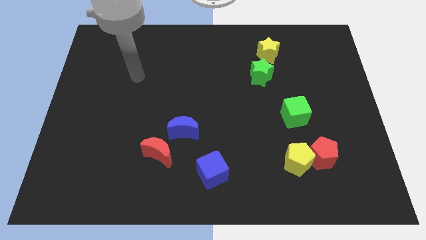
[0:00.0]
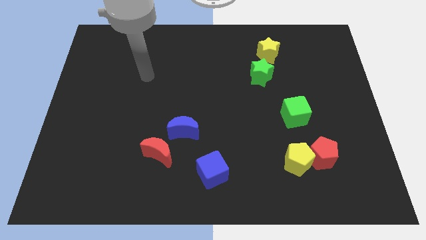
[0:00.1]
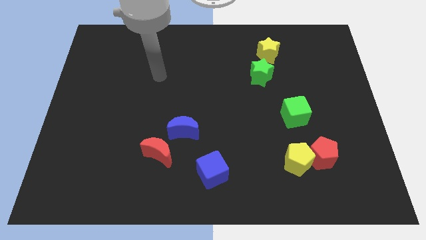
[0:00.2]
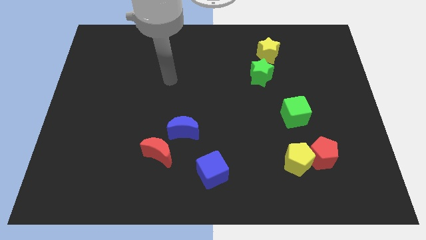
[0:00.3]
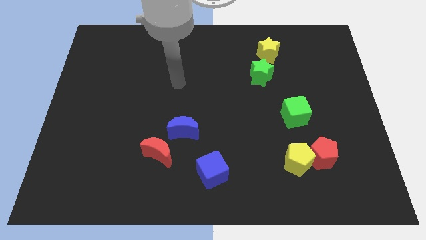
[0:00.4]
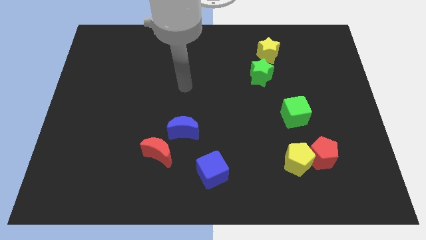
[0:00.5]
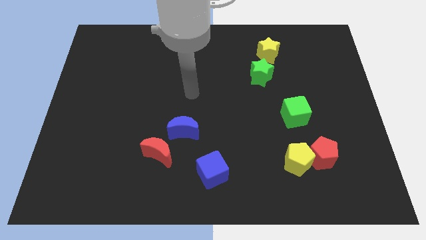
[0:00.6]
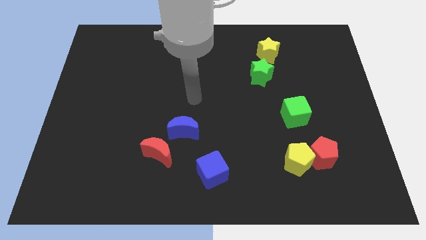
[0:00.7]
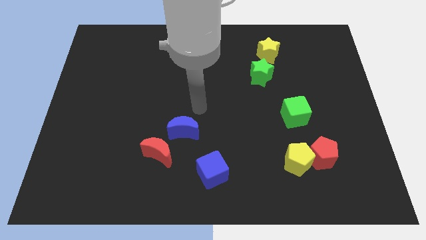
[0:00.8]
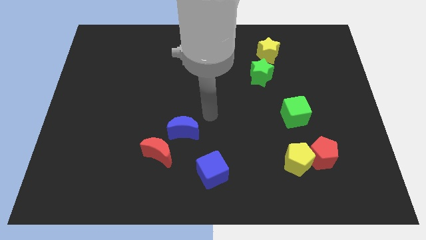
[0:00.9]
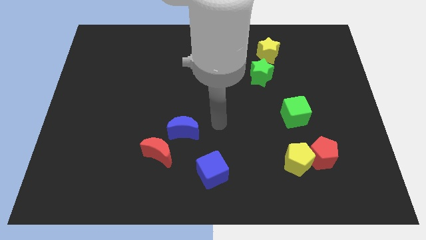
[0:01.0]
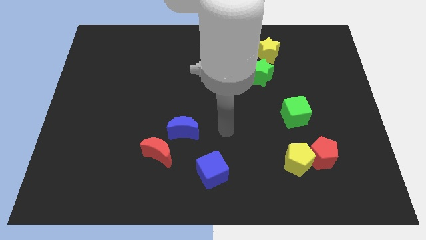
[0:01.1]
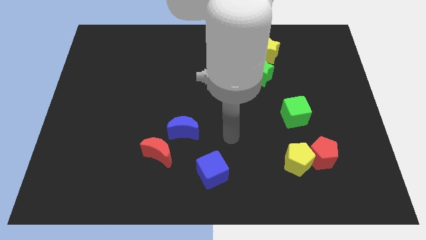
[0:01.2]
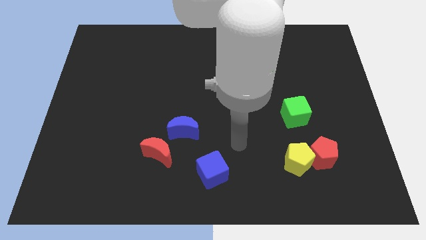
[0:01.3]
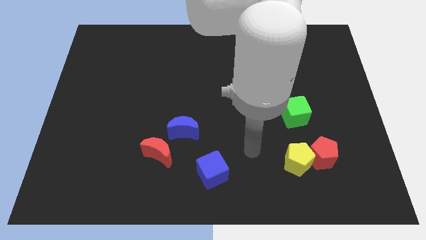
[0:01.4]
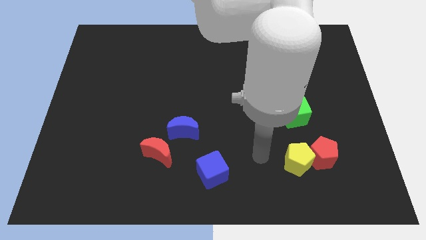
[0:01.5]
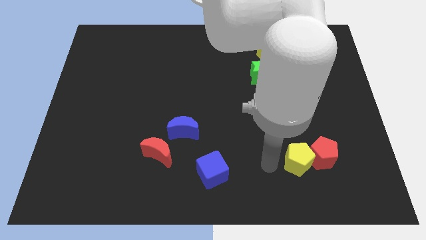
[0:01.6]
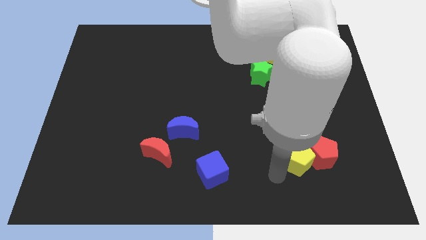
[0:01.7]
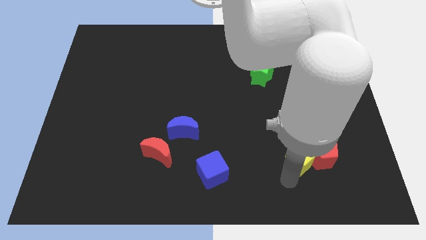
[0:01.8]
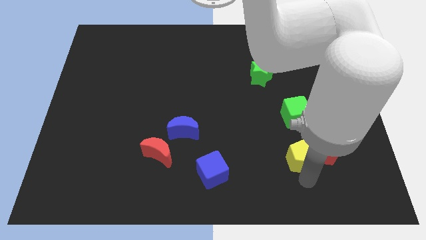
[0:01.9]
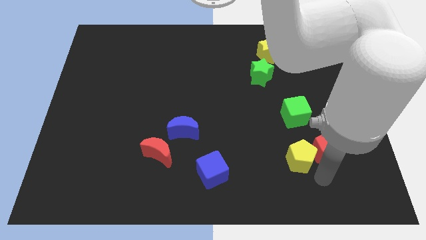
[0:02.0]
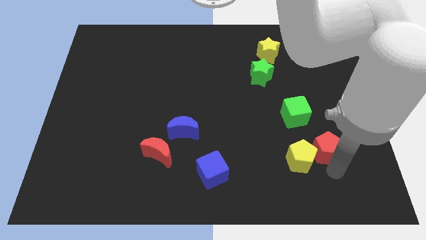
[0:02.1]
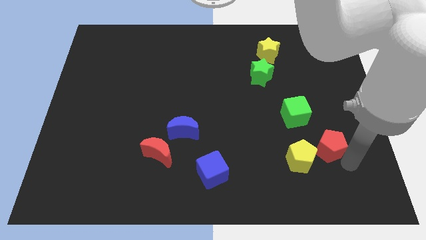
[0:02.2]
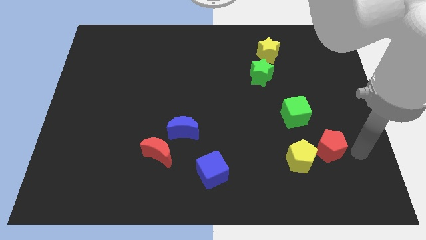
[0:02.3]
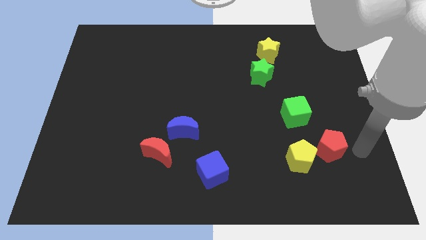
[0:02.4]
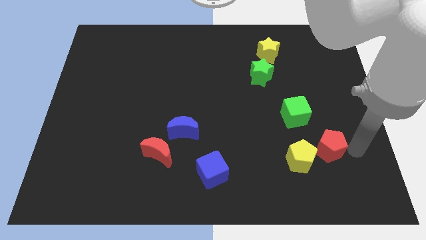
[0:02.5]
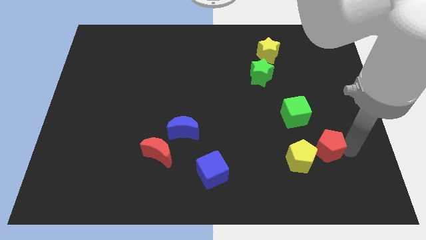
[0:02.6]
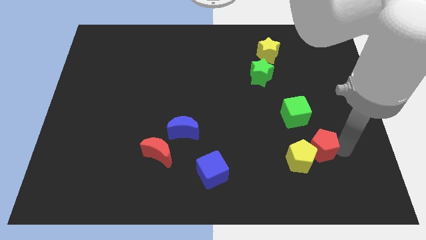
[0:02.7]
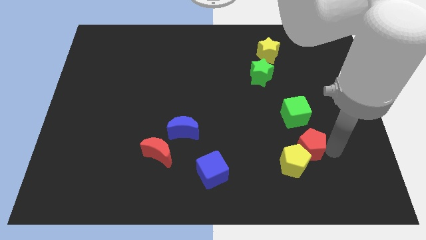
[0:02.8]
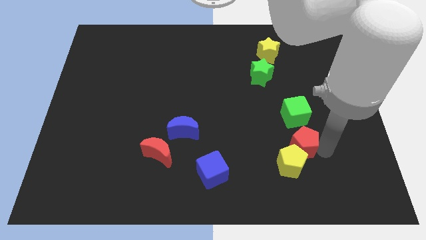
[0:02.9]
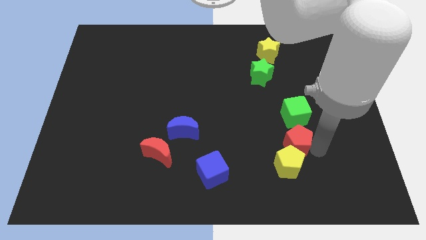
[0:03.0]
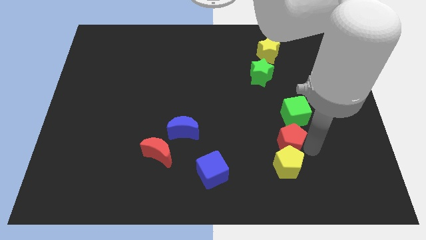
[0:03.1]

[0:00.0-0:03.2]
push the red pentagon upwards and then left a little

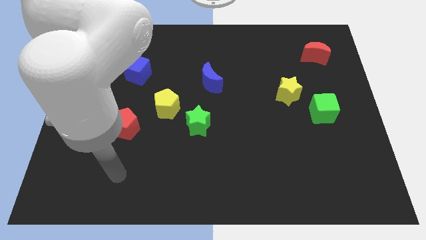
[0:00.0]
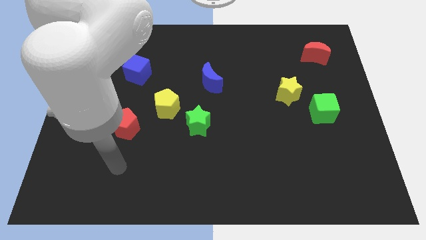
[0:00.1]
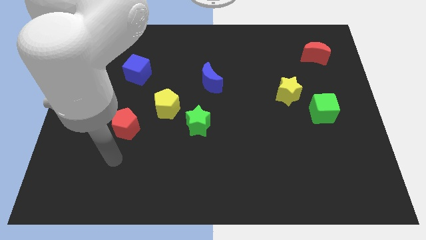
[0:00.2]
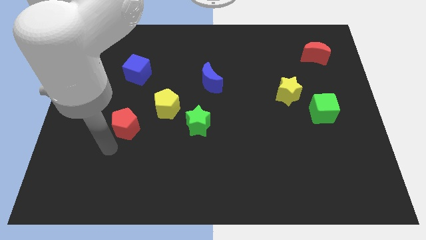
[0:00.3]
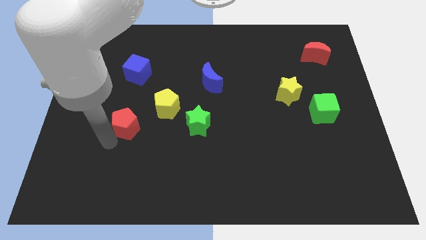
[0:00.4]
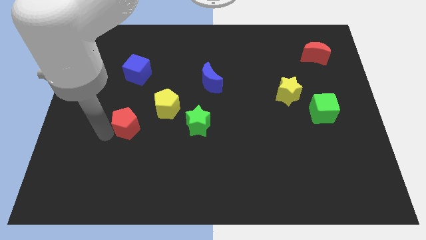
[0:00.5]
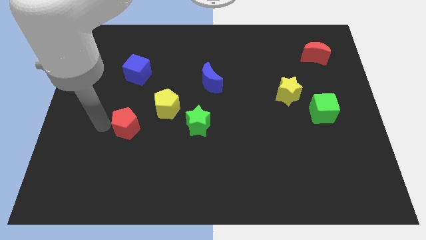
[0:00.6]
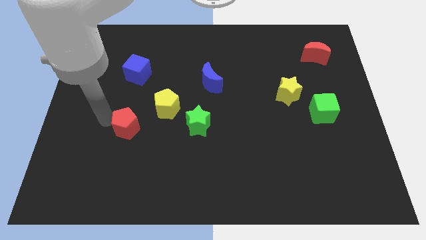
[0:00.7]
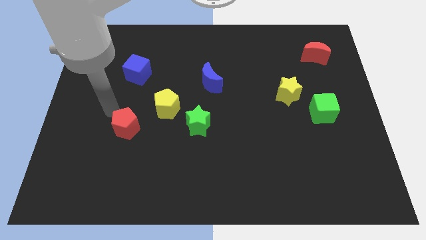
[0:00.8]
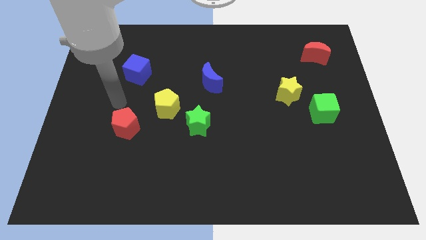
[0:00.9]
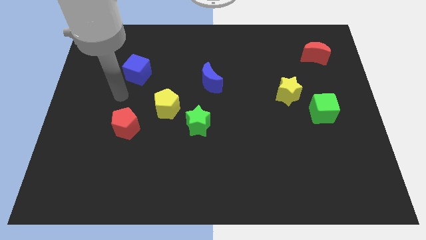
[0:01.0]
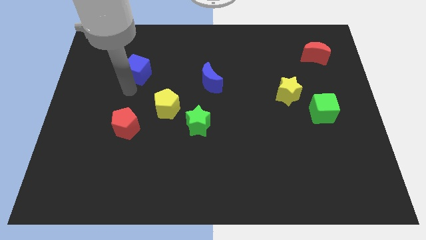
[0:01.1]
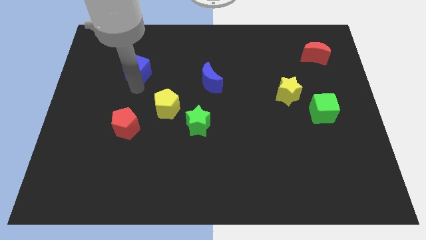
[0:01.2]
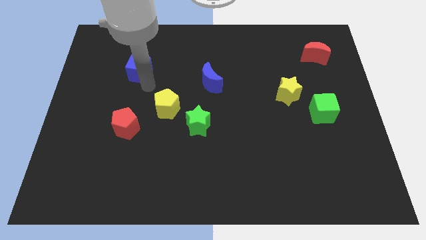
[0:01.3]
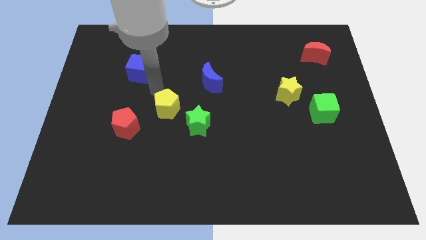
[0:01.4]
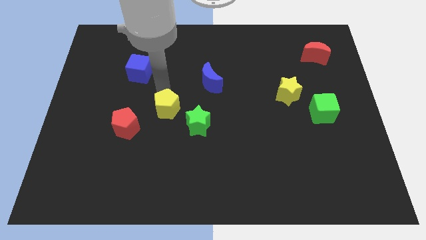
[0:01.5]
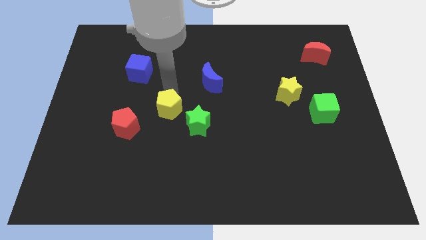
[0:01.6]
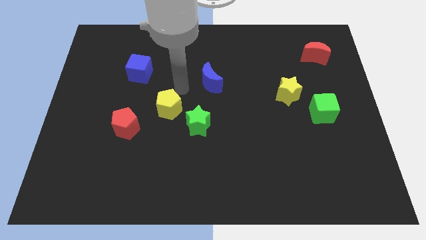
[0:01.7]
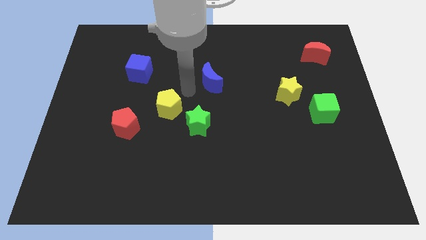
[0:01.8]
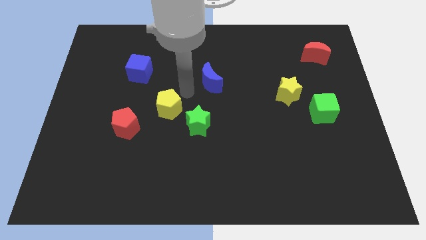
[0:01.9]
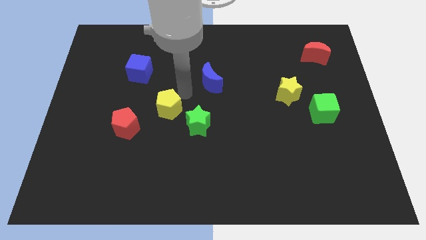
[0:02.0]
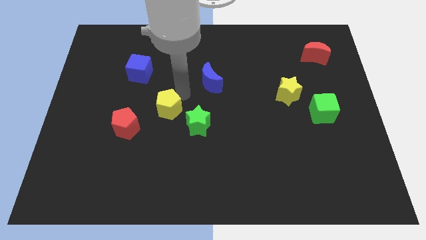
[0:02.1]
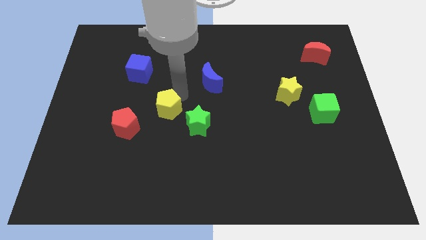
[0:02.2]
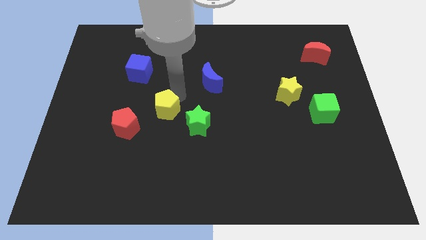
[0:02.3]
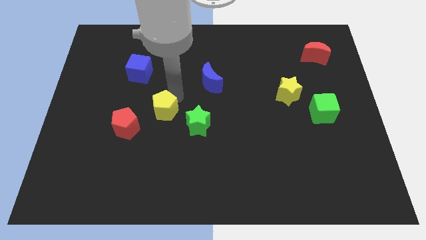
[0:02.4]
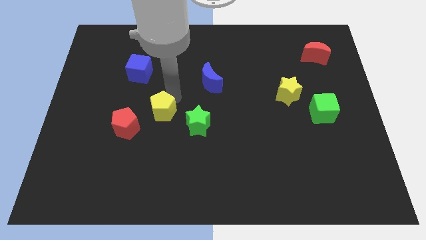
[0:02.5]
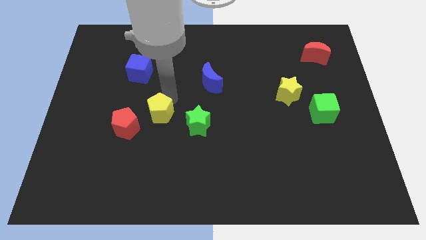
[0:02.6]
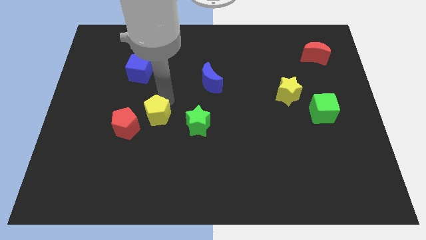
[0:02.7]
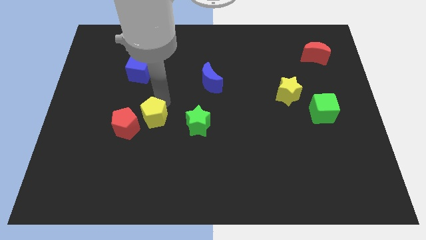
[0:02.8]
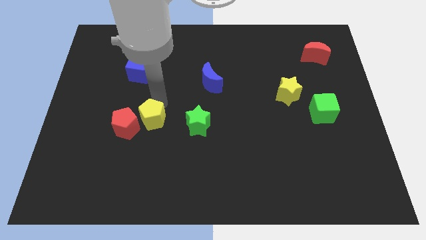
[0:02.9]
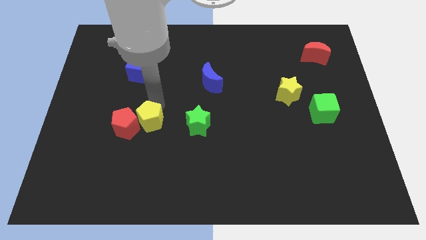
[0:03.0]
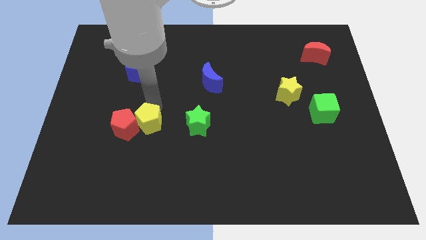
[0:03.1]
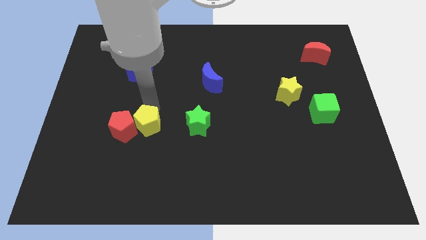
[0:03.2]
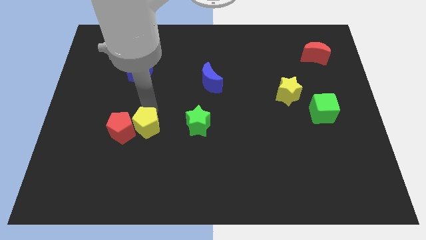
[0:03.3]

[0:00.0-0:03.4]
push the yellow pentagon a little downwards and then to the left

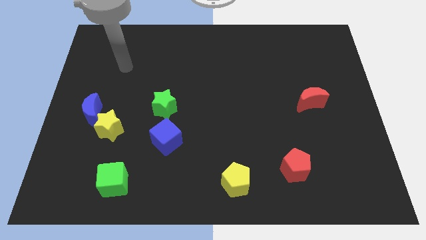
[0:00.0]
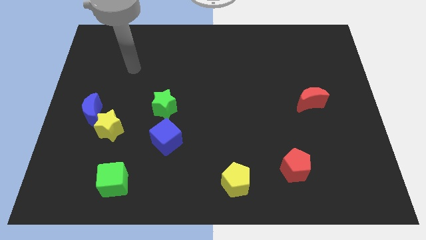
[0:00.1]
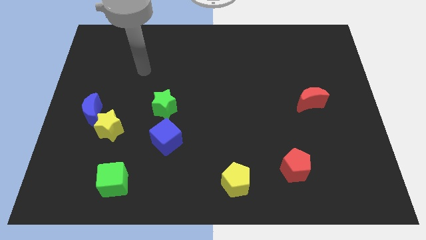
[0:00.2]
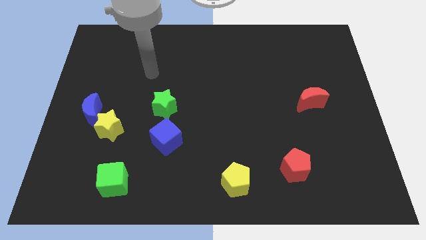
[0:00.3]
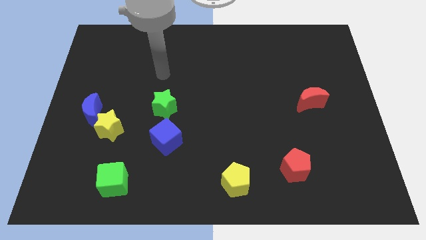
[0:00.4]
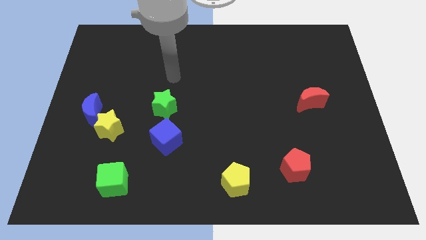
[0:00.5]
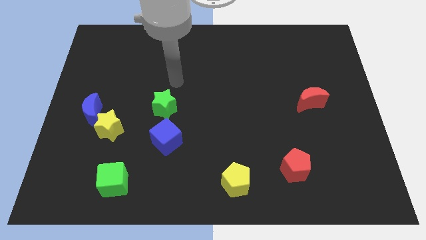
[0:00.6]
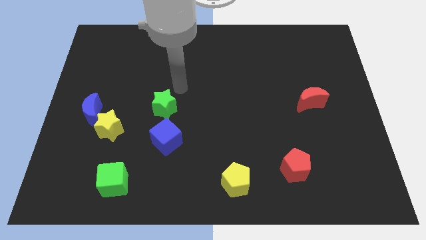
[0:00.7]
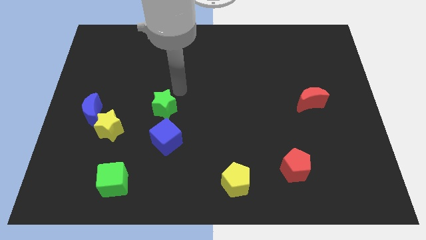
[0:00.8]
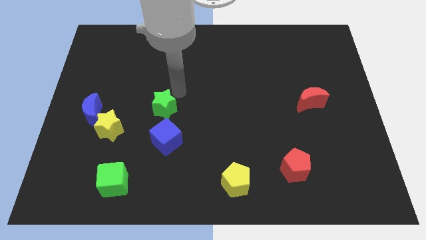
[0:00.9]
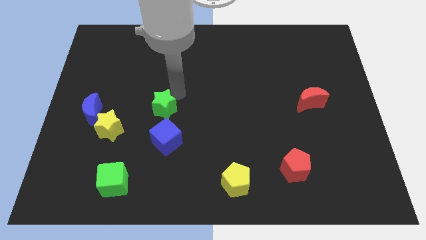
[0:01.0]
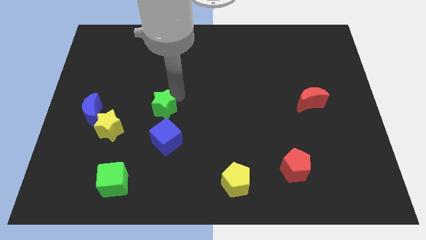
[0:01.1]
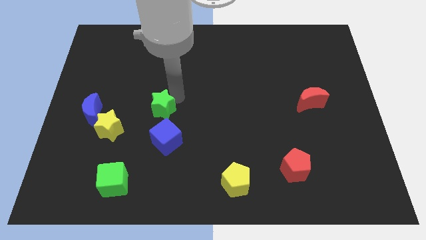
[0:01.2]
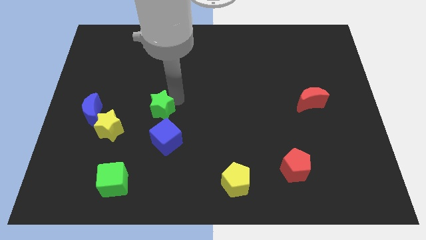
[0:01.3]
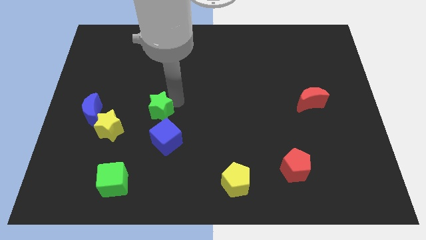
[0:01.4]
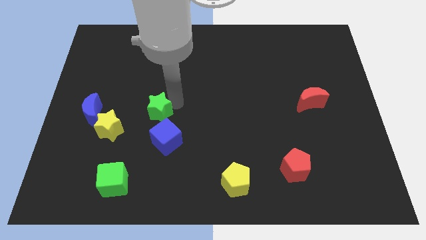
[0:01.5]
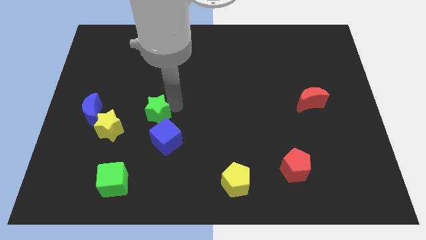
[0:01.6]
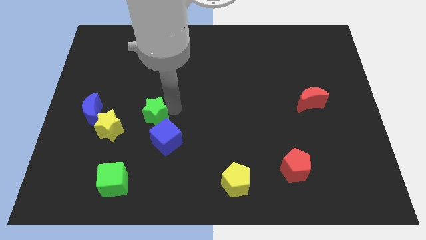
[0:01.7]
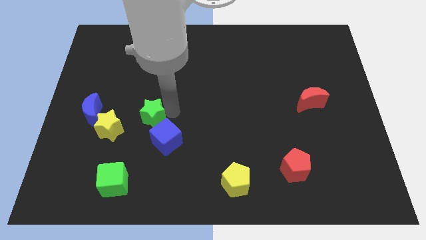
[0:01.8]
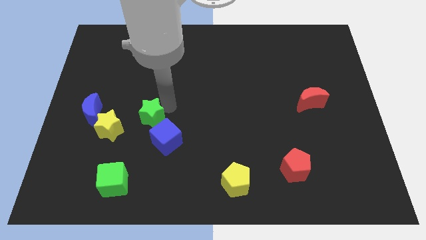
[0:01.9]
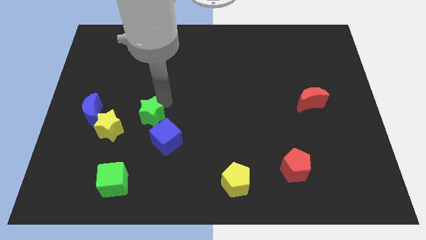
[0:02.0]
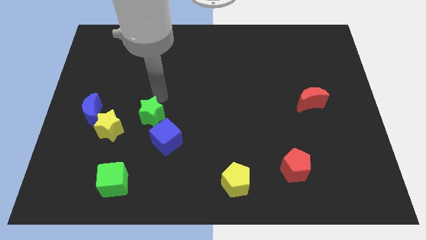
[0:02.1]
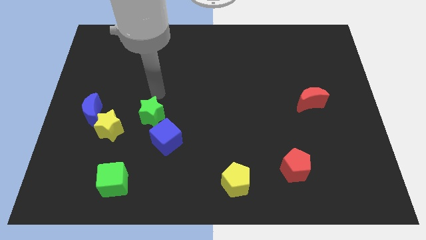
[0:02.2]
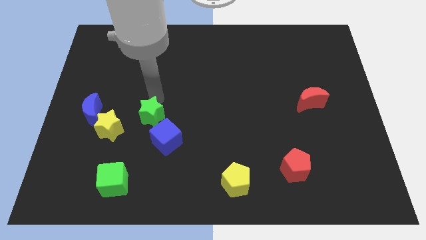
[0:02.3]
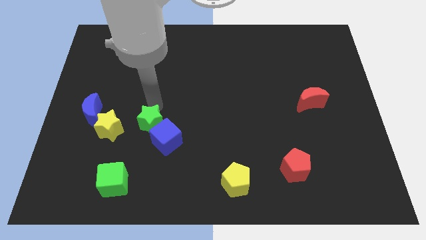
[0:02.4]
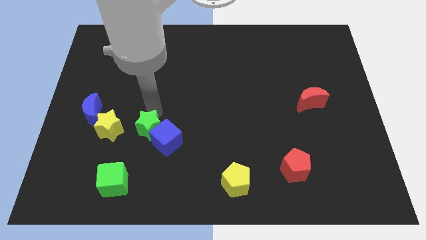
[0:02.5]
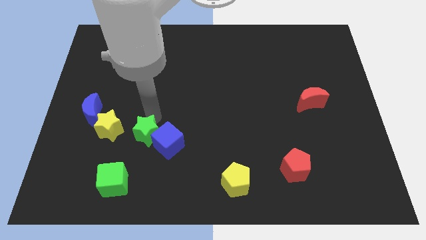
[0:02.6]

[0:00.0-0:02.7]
slide the green star downwards a little bit
